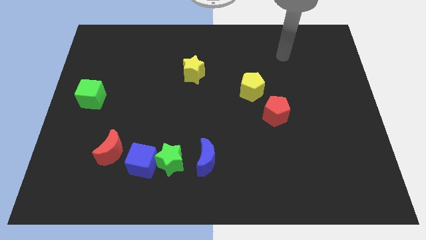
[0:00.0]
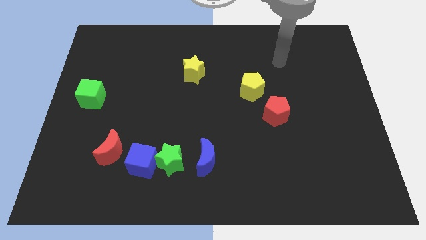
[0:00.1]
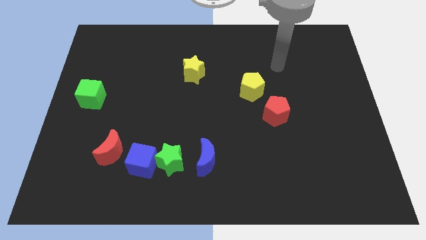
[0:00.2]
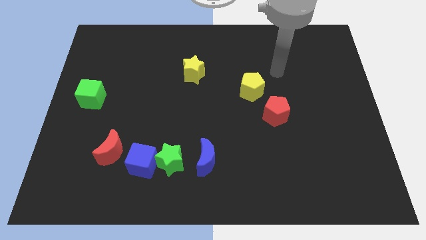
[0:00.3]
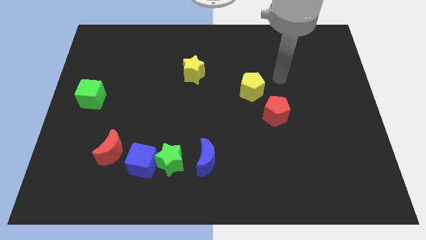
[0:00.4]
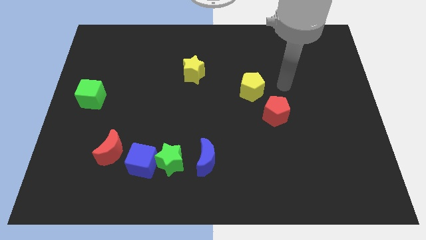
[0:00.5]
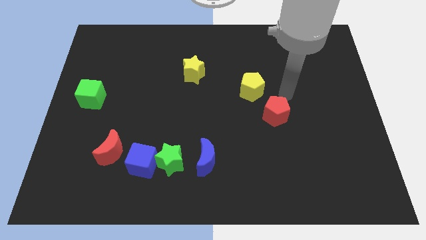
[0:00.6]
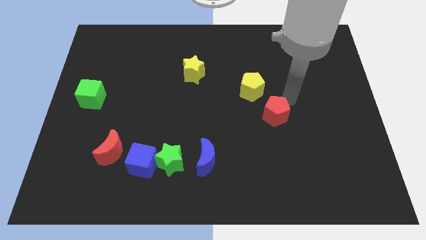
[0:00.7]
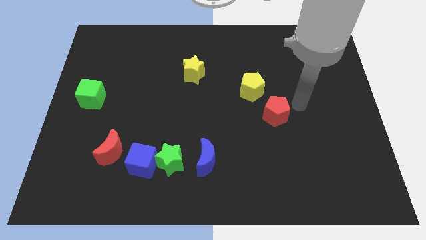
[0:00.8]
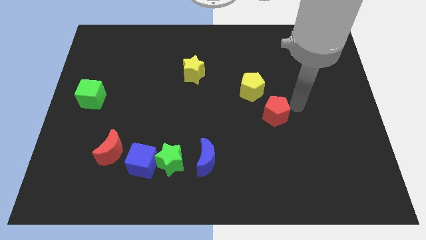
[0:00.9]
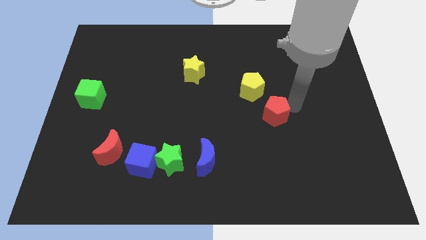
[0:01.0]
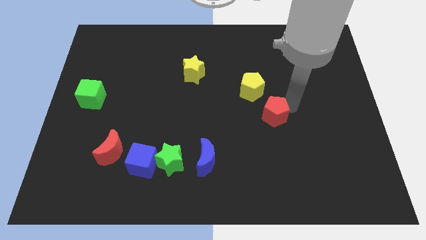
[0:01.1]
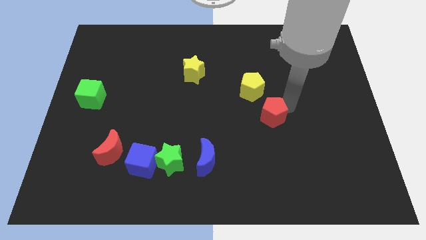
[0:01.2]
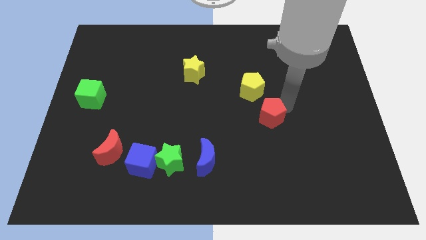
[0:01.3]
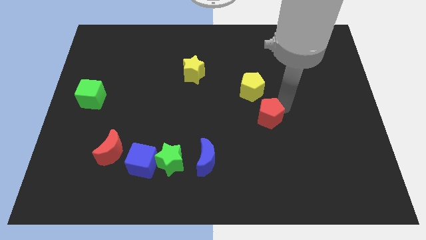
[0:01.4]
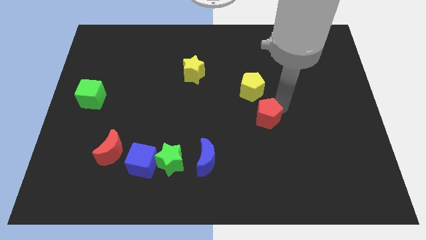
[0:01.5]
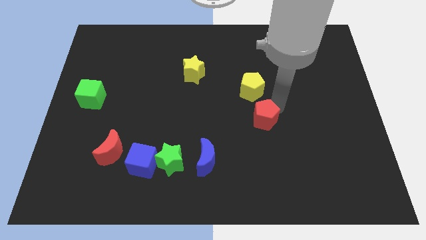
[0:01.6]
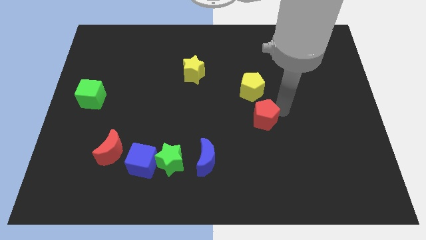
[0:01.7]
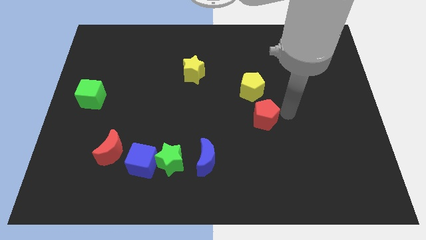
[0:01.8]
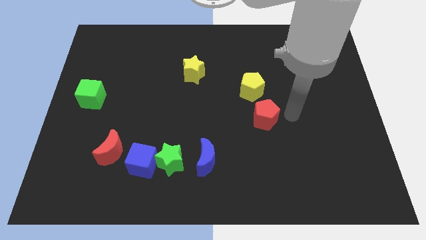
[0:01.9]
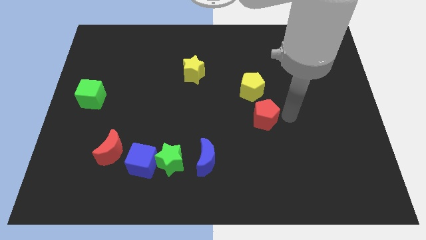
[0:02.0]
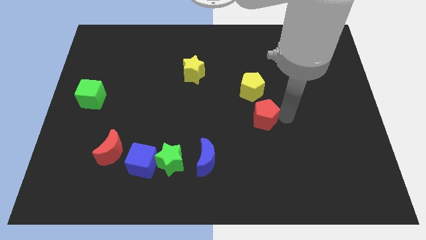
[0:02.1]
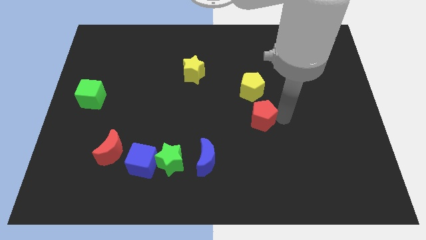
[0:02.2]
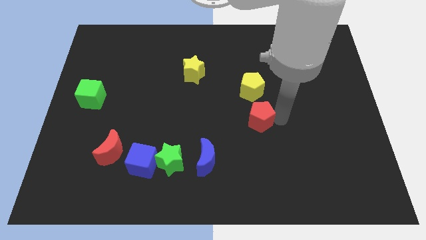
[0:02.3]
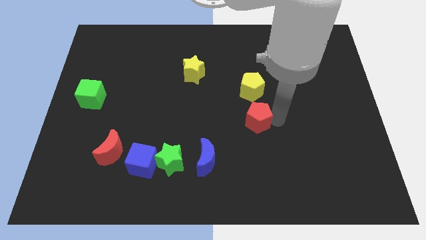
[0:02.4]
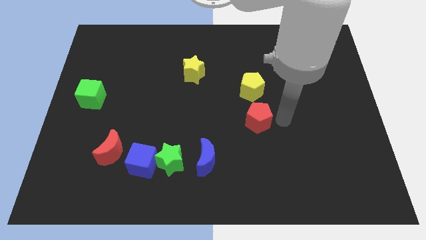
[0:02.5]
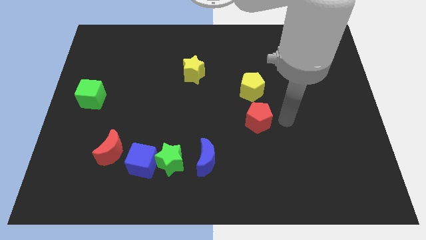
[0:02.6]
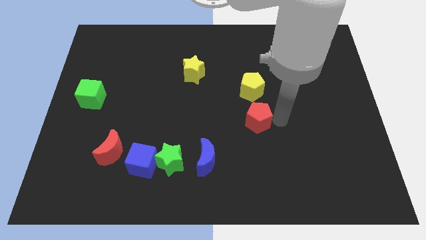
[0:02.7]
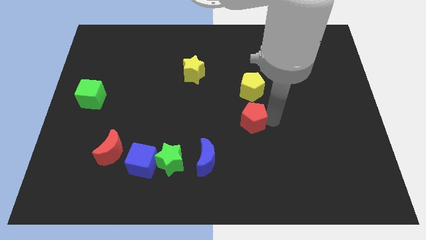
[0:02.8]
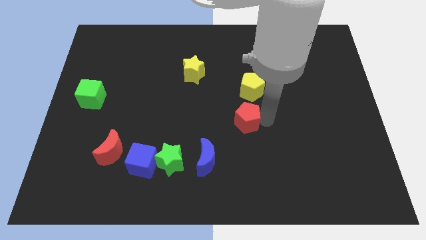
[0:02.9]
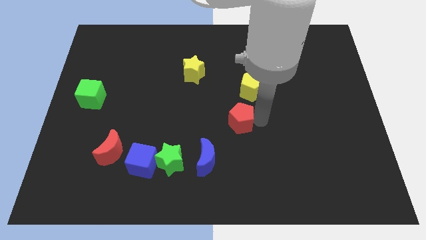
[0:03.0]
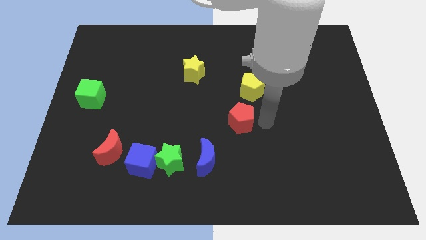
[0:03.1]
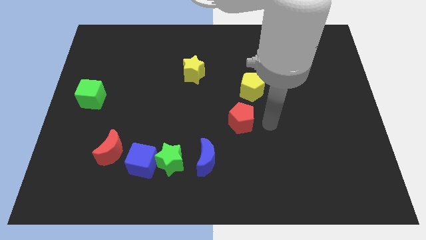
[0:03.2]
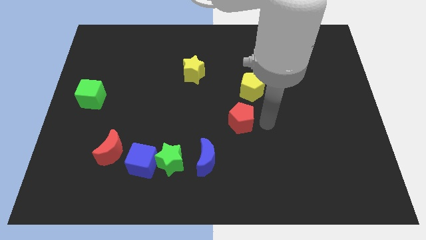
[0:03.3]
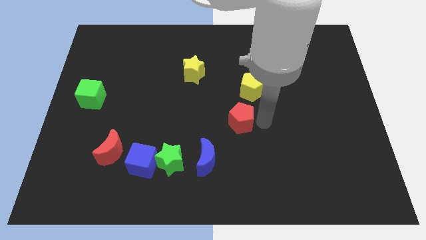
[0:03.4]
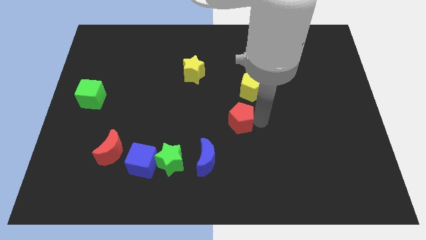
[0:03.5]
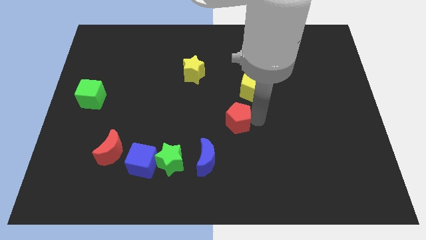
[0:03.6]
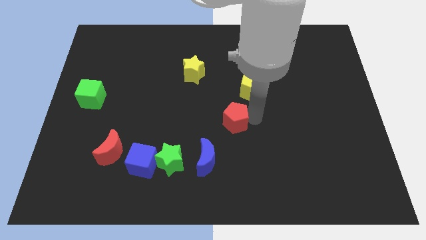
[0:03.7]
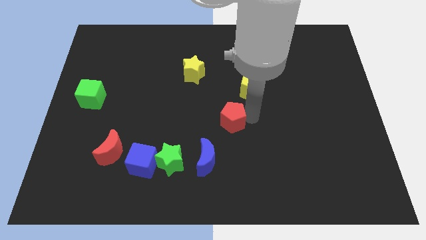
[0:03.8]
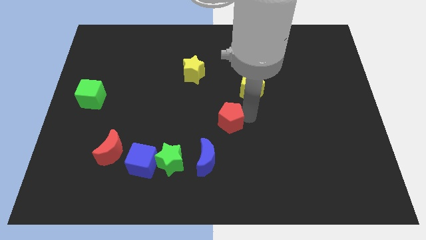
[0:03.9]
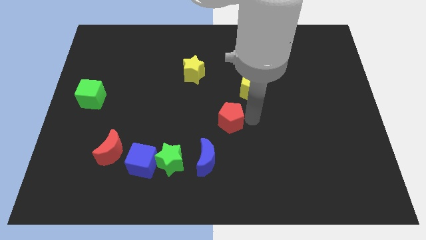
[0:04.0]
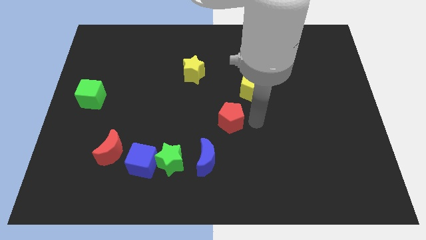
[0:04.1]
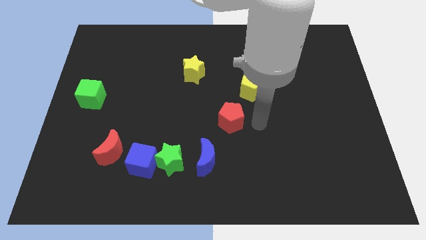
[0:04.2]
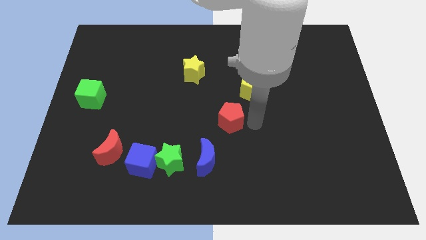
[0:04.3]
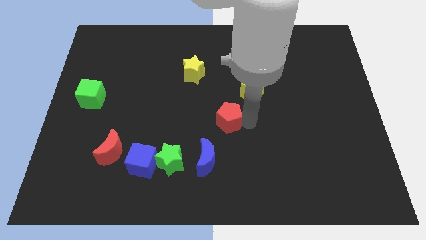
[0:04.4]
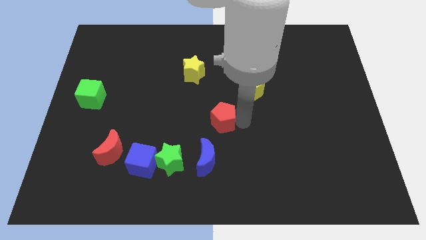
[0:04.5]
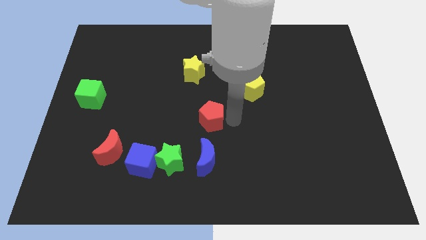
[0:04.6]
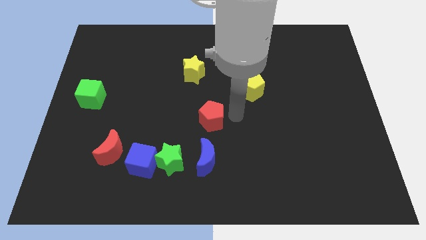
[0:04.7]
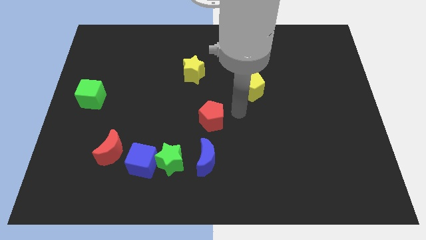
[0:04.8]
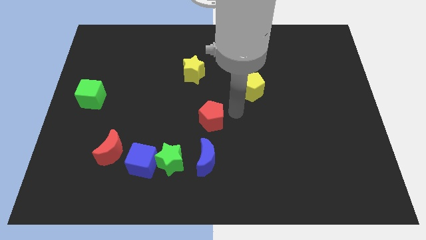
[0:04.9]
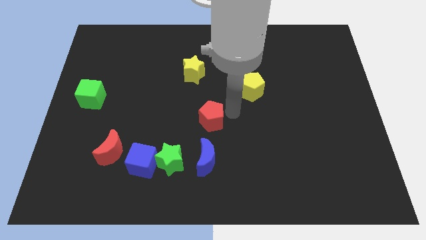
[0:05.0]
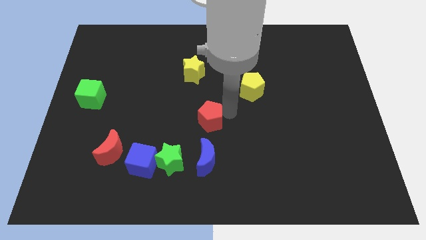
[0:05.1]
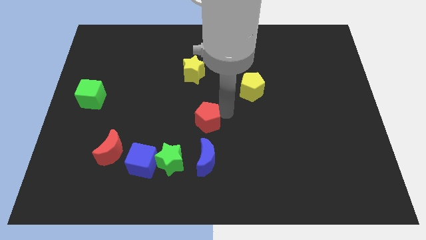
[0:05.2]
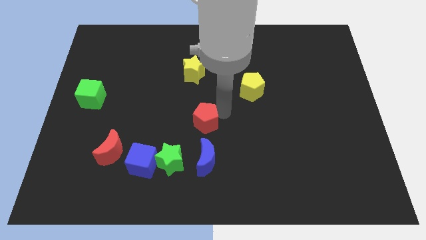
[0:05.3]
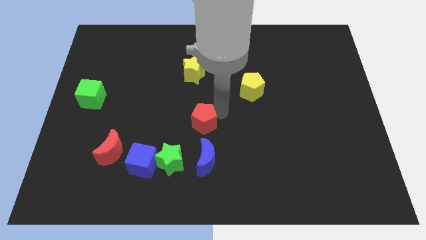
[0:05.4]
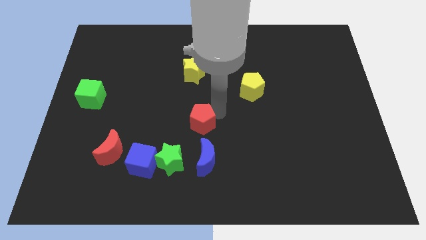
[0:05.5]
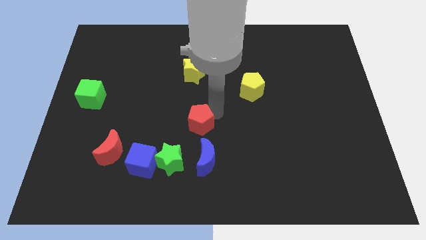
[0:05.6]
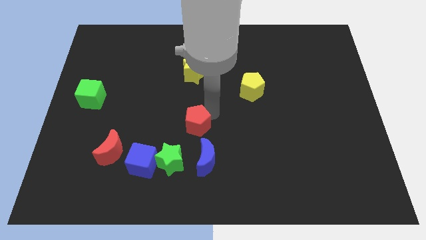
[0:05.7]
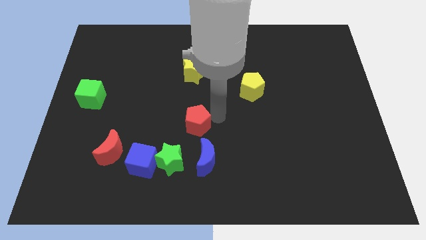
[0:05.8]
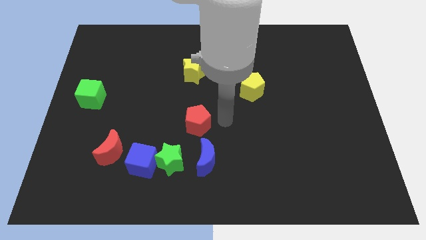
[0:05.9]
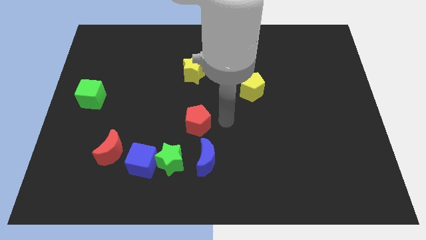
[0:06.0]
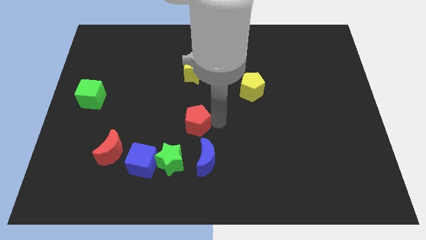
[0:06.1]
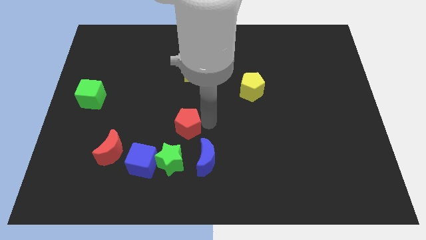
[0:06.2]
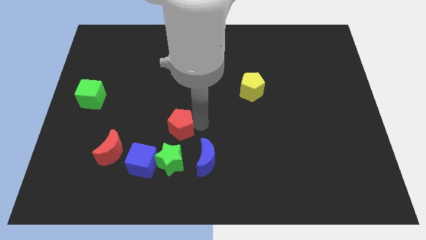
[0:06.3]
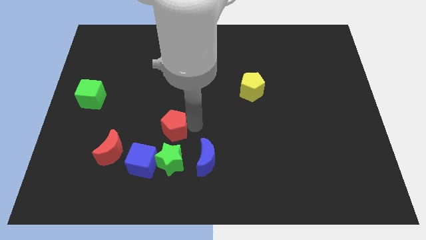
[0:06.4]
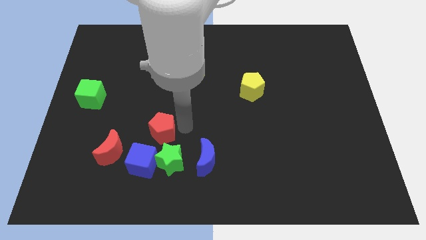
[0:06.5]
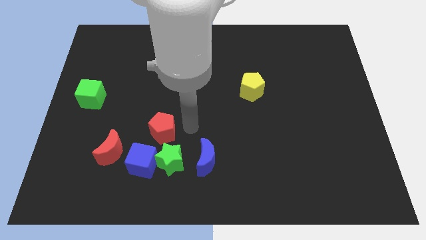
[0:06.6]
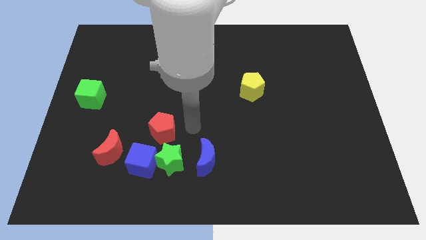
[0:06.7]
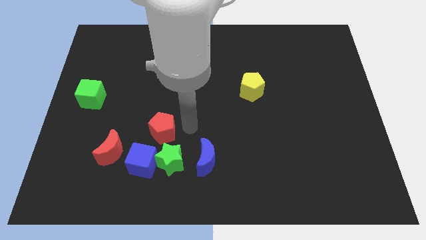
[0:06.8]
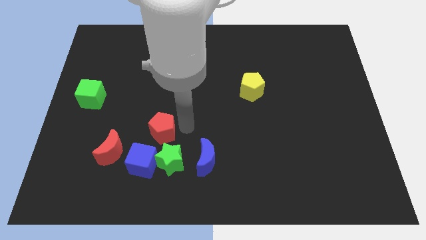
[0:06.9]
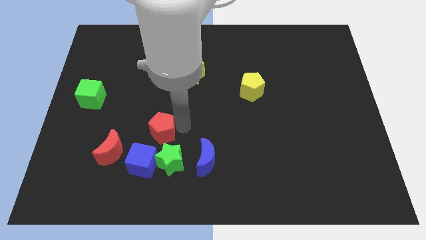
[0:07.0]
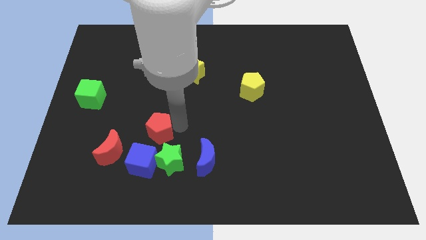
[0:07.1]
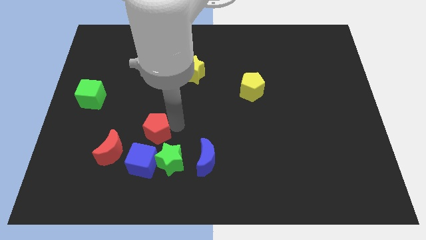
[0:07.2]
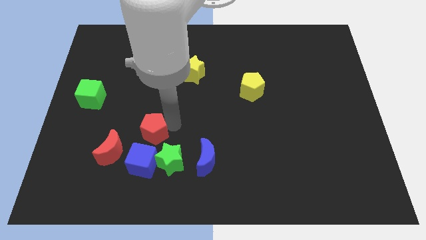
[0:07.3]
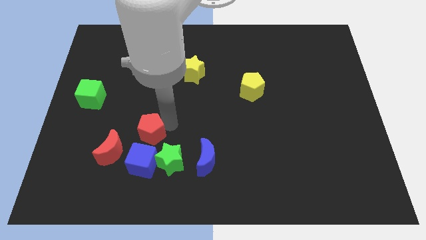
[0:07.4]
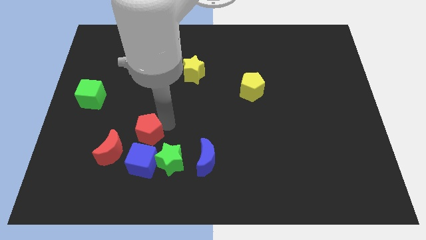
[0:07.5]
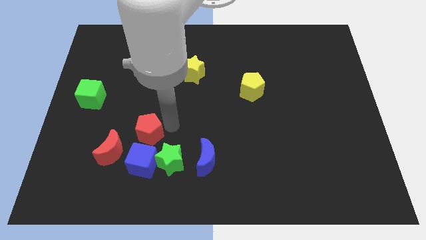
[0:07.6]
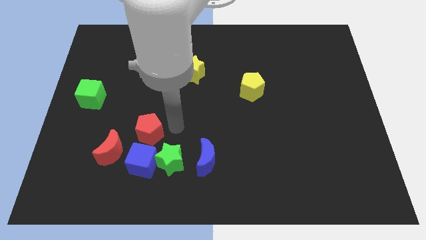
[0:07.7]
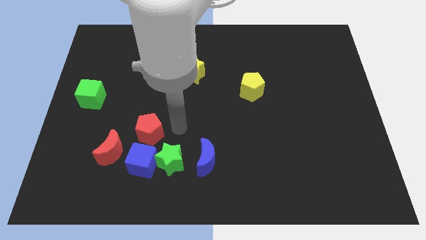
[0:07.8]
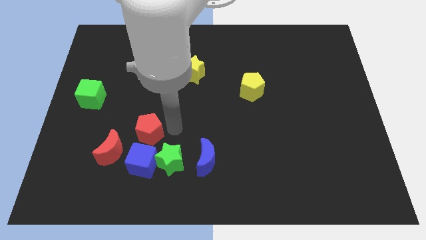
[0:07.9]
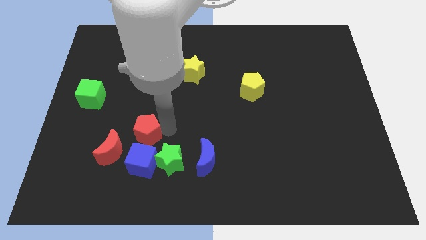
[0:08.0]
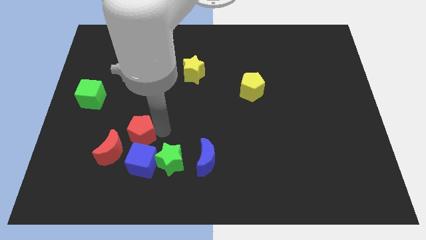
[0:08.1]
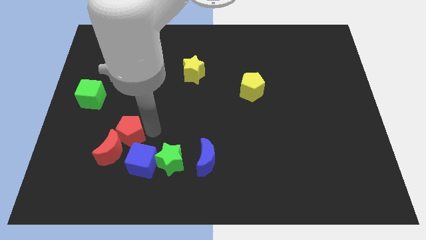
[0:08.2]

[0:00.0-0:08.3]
push the red pentagon next to the red moon
